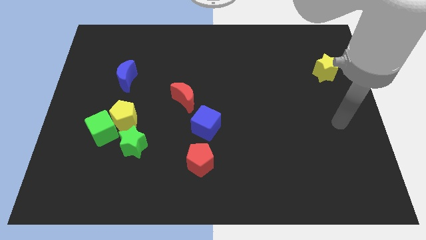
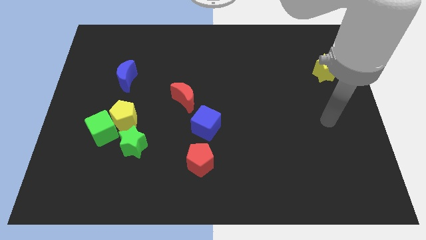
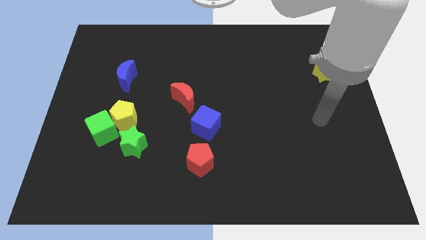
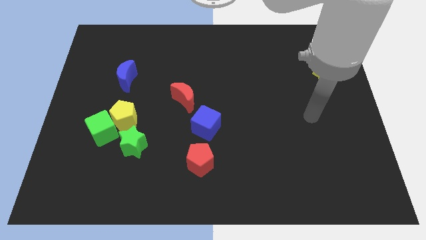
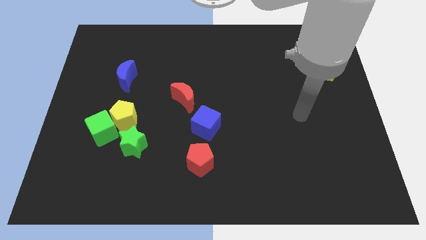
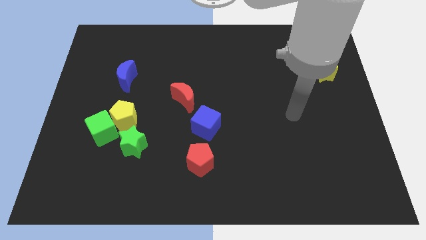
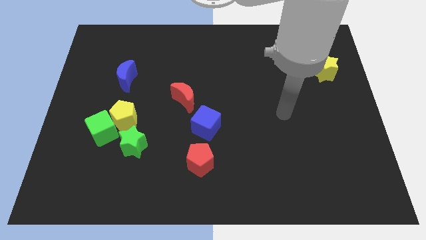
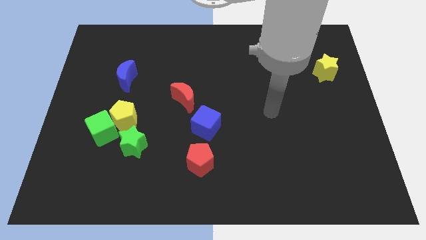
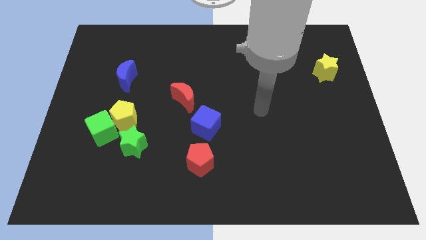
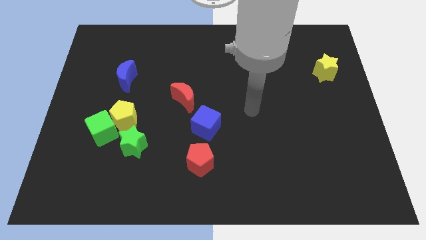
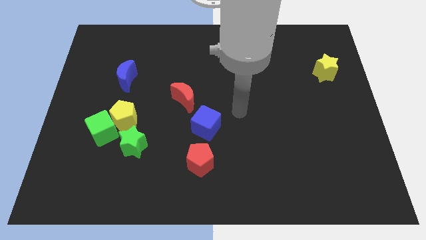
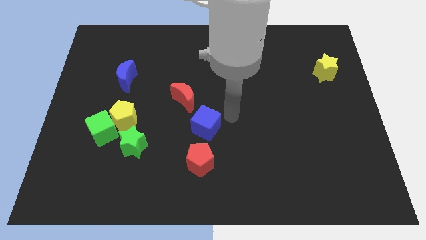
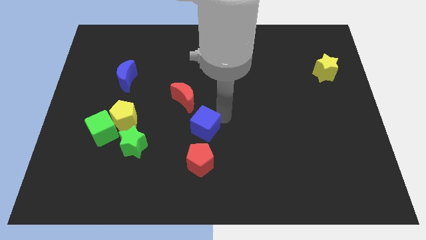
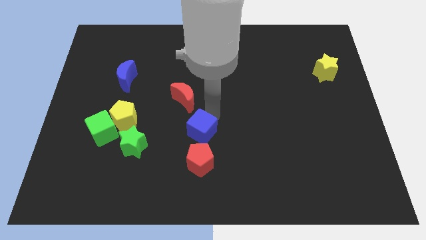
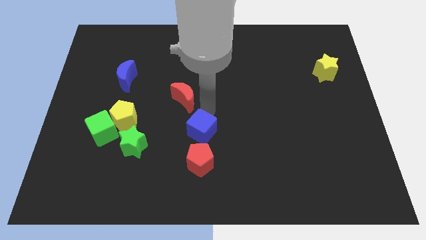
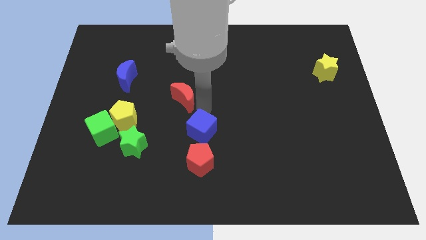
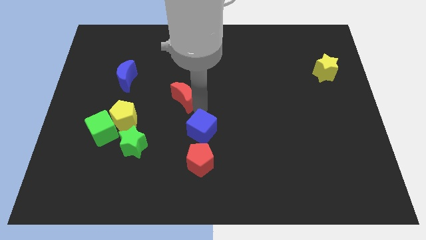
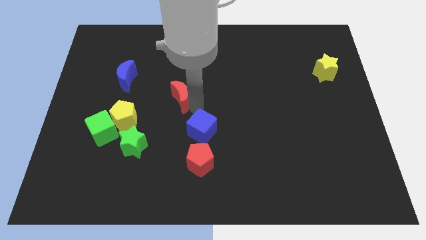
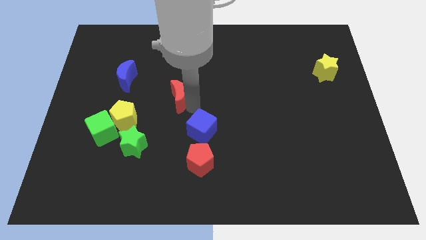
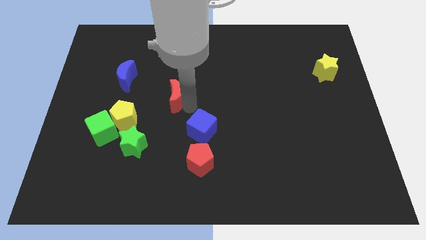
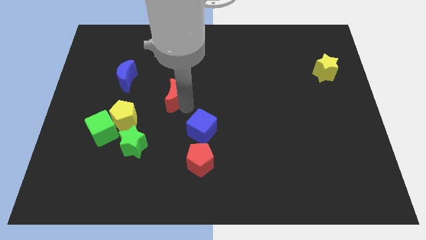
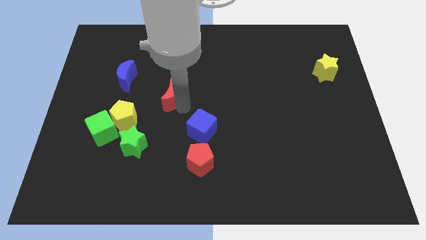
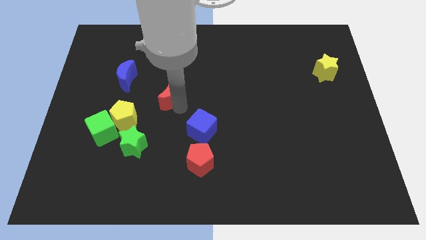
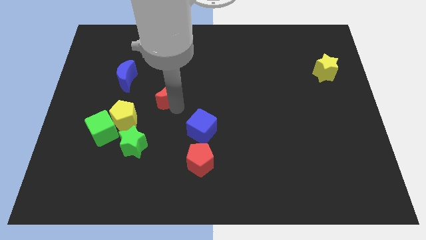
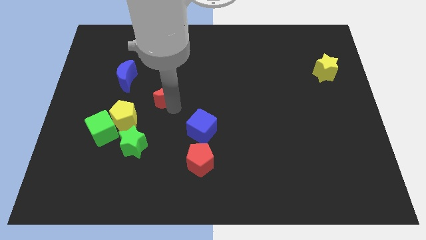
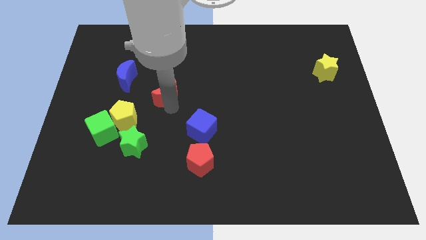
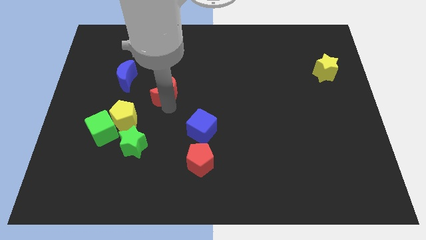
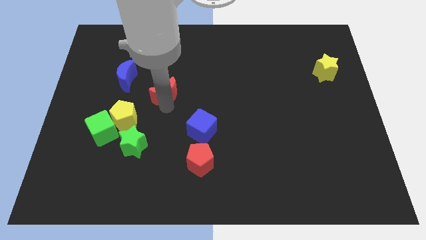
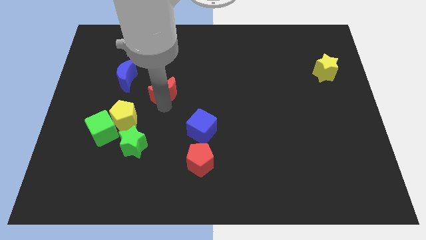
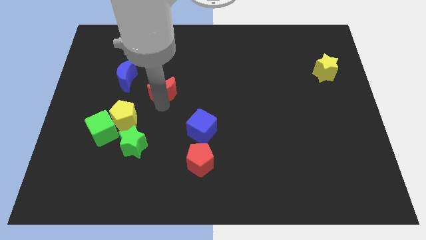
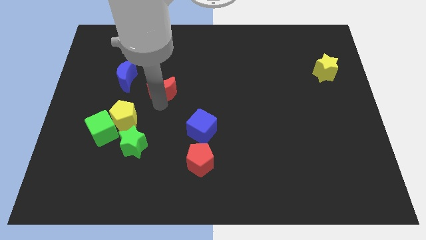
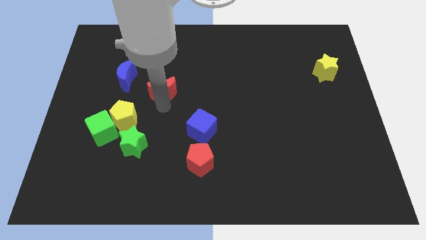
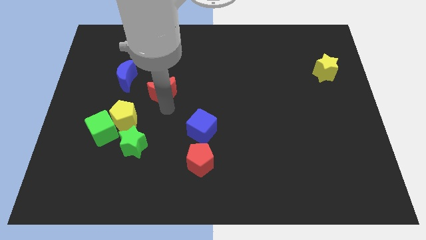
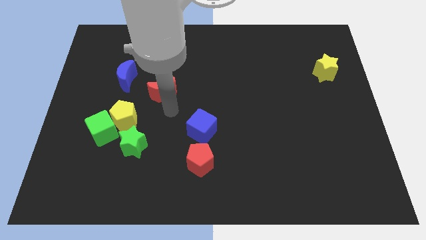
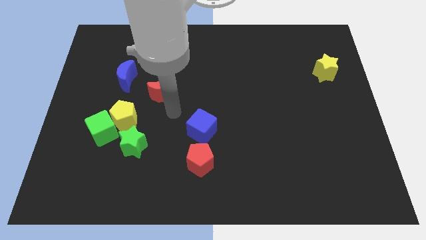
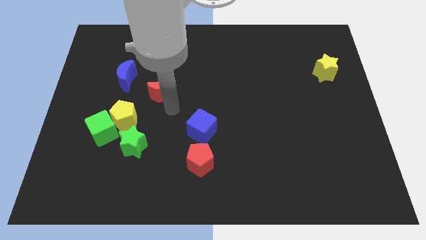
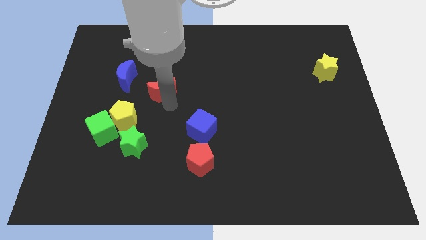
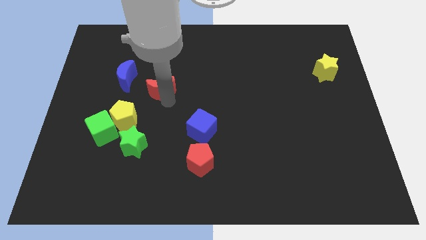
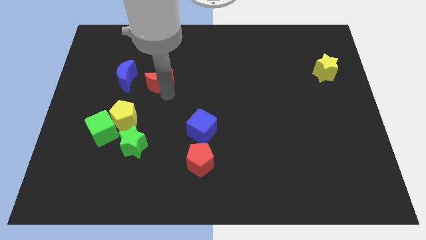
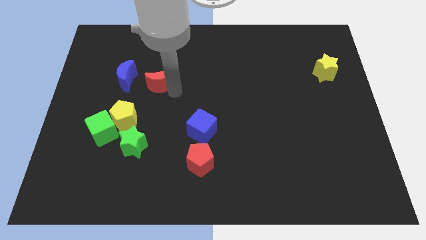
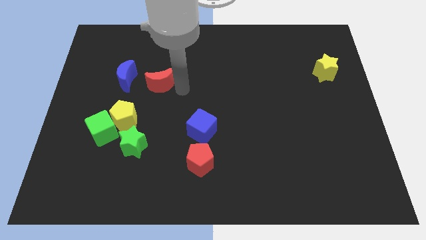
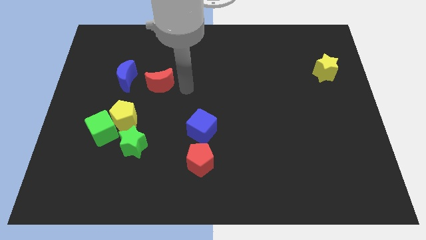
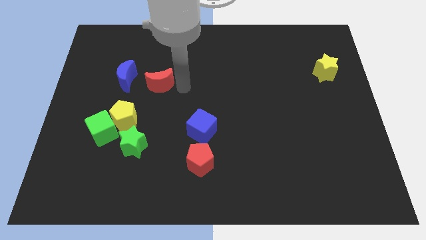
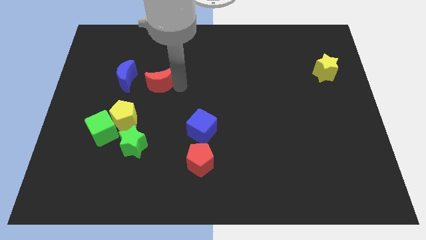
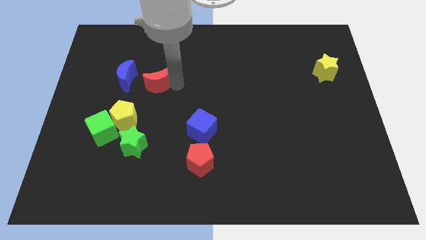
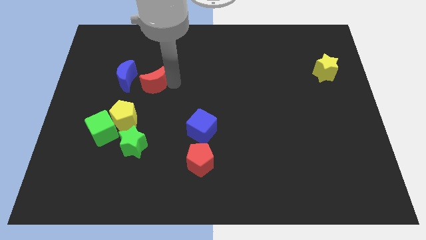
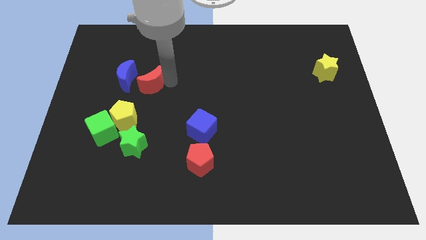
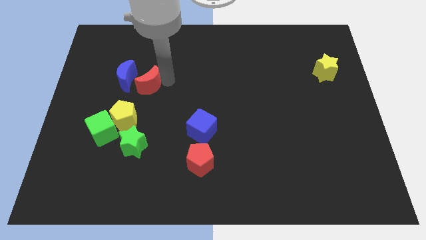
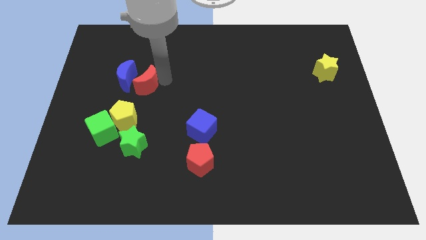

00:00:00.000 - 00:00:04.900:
slide the red moon close to the blue moon

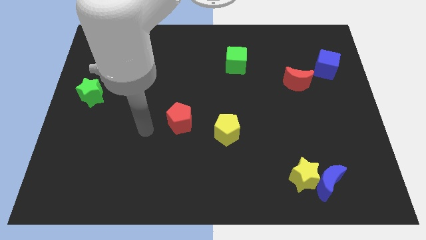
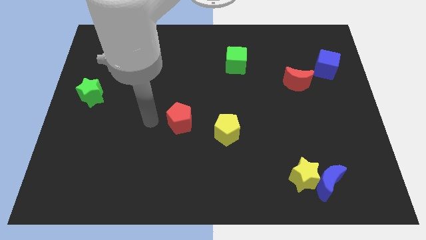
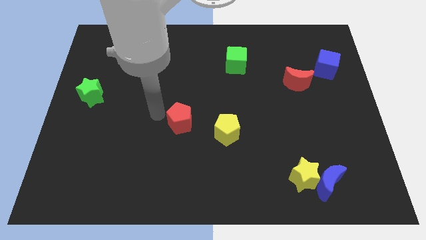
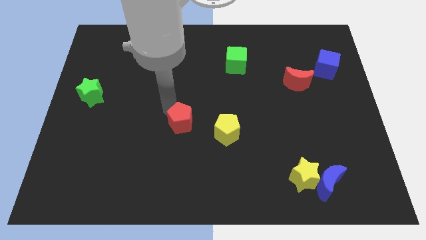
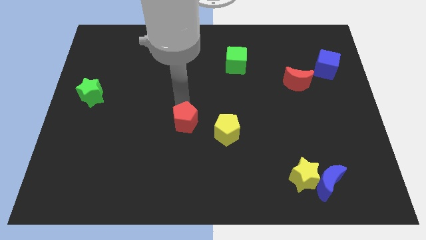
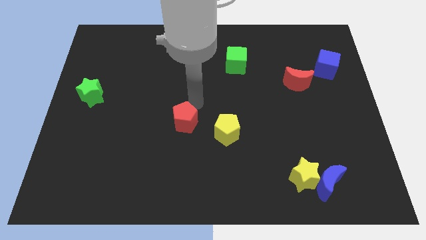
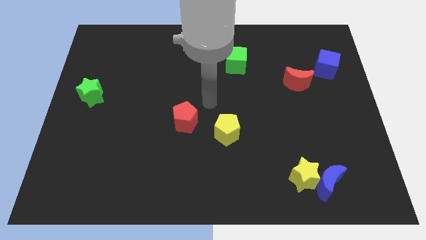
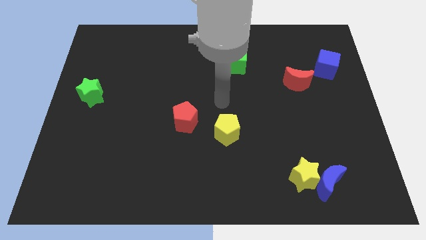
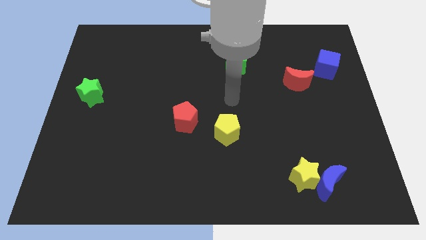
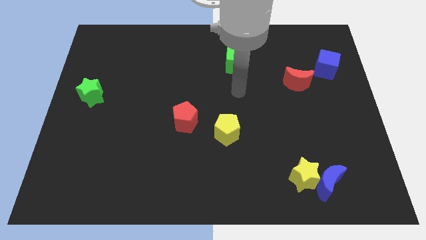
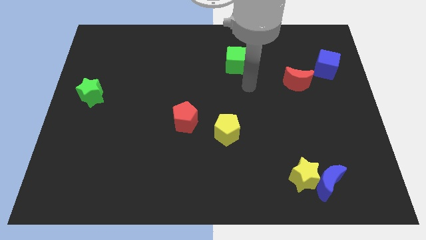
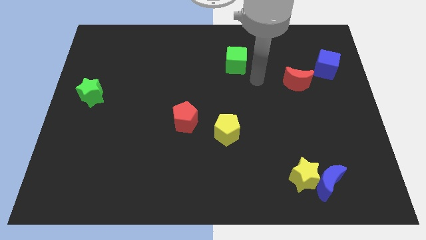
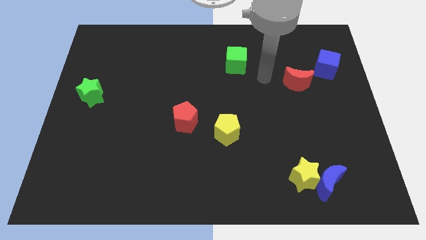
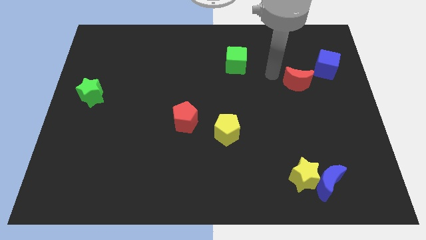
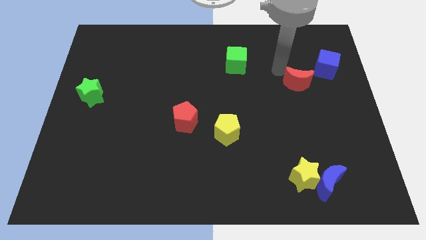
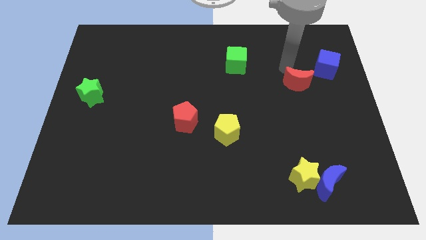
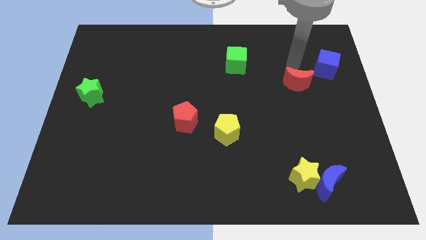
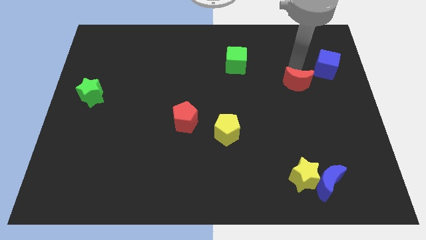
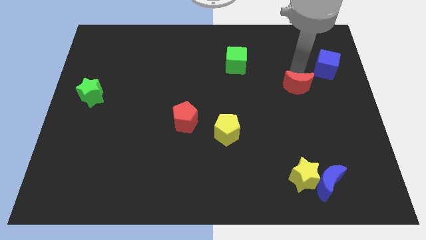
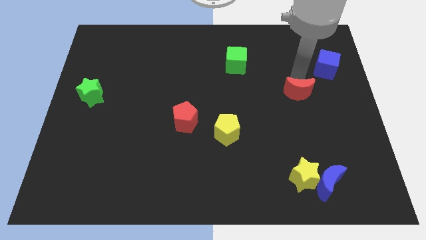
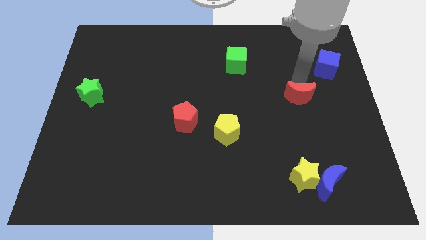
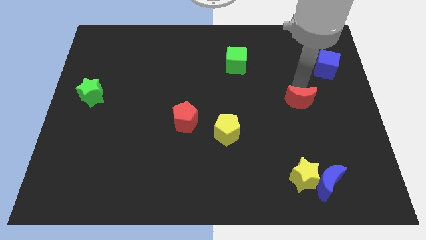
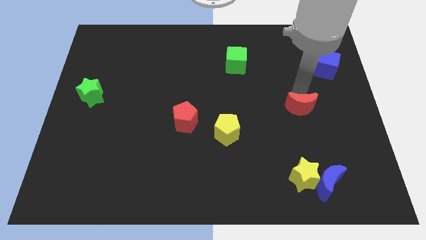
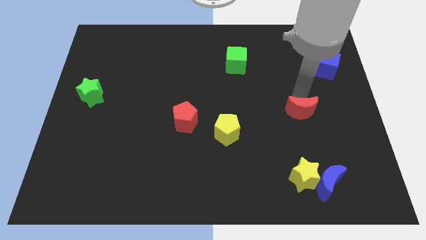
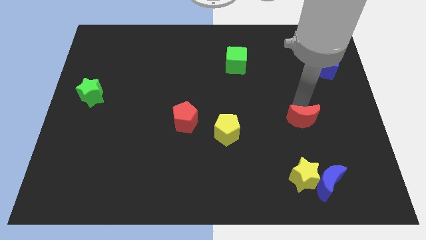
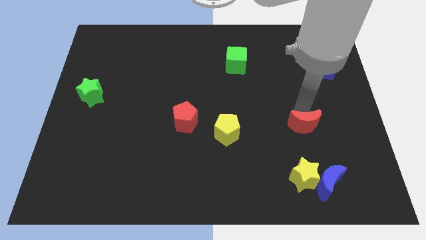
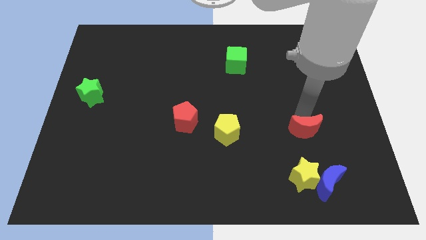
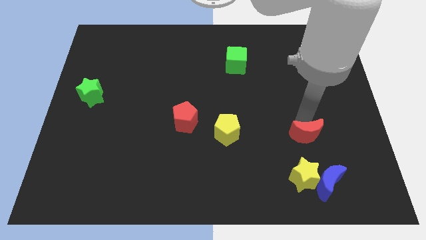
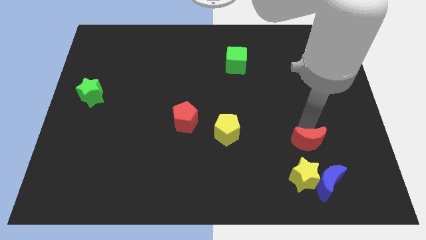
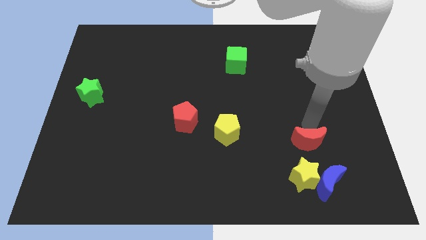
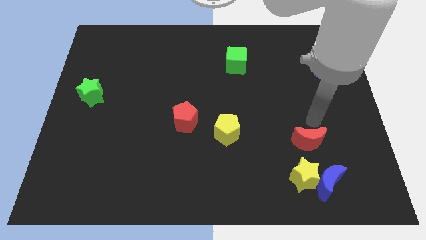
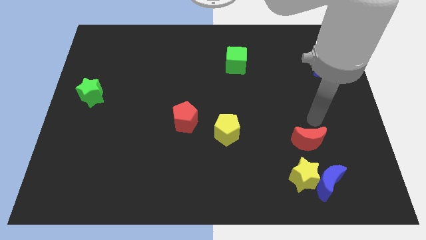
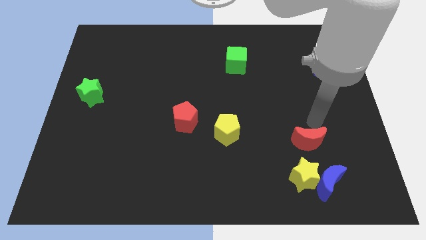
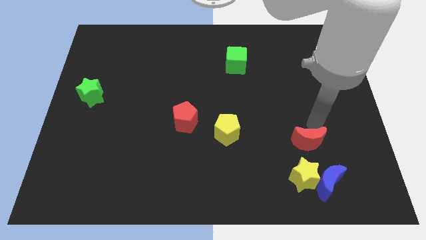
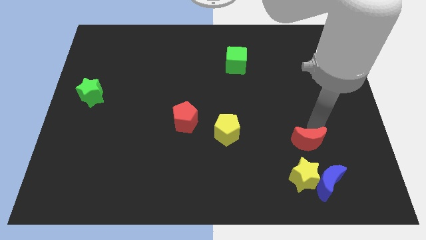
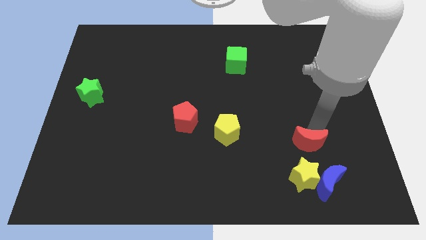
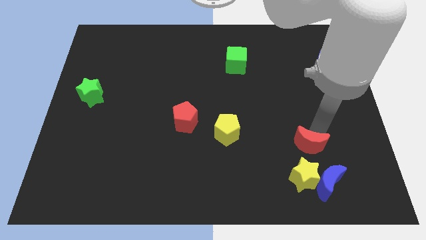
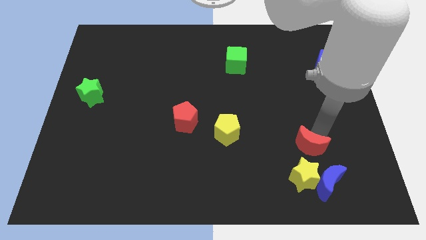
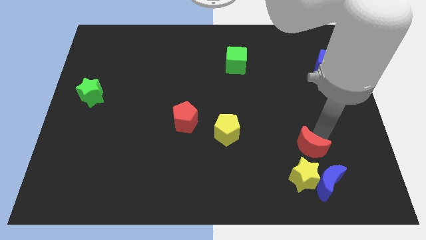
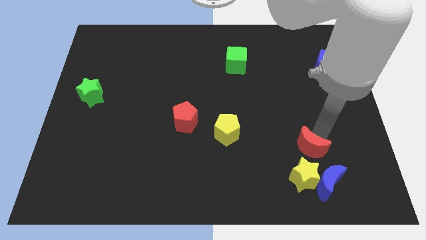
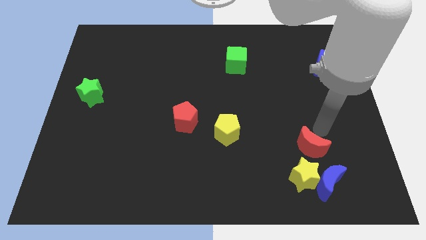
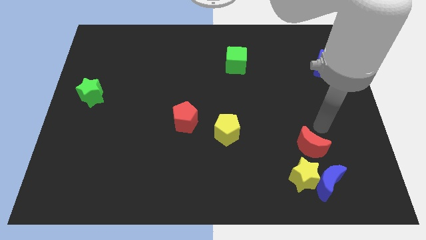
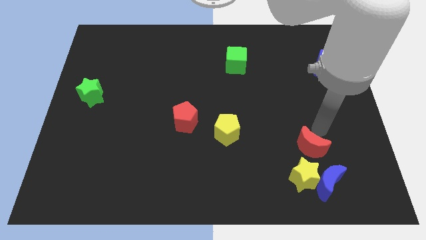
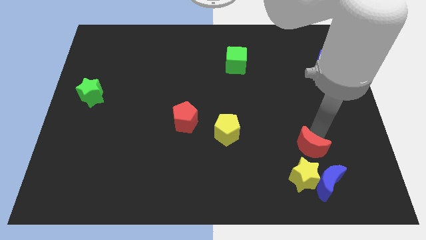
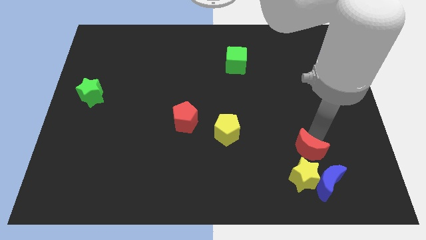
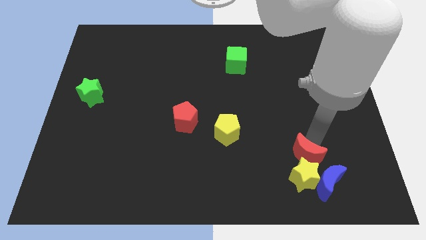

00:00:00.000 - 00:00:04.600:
move the red moon towards the yellow star
